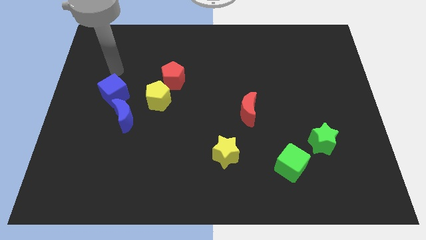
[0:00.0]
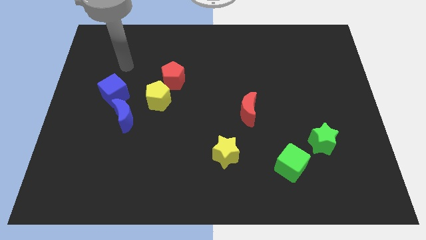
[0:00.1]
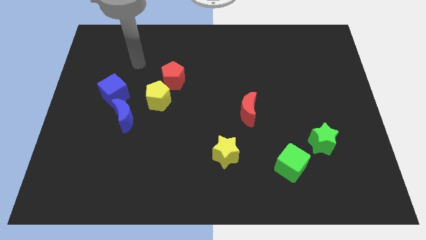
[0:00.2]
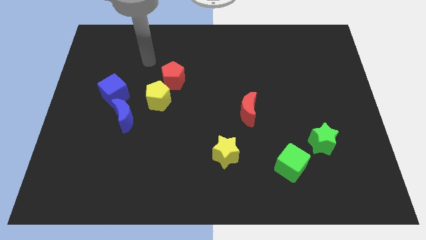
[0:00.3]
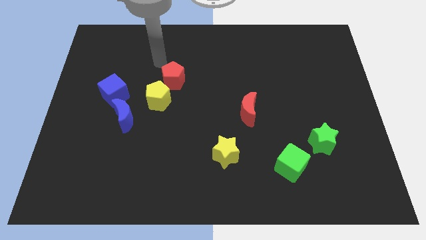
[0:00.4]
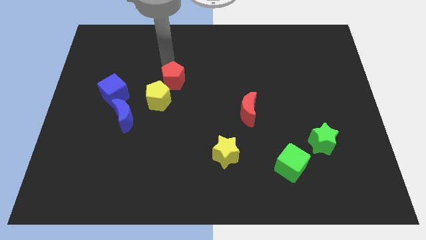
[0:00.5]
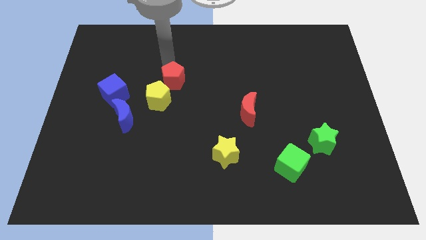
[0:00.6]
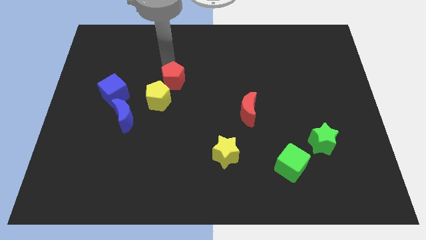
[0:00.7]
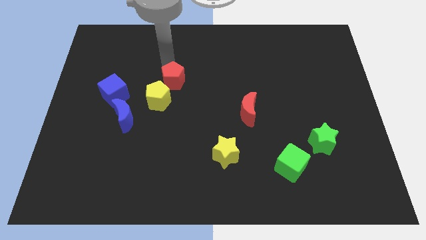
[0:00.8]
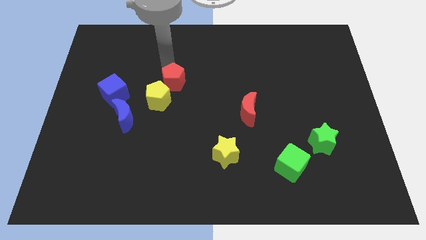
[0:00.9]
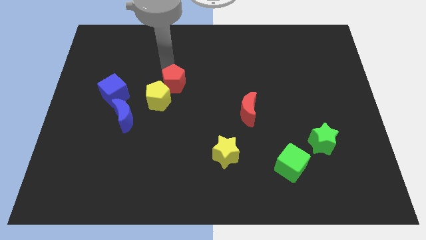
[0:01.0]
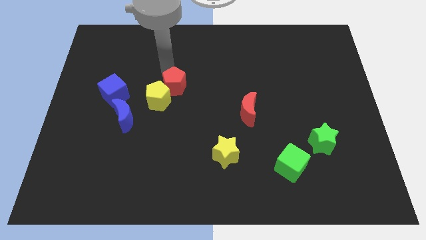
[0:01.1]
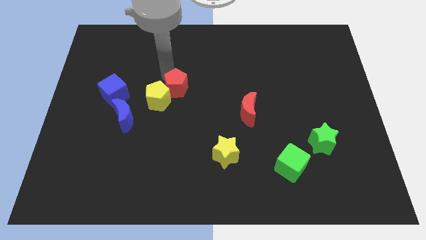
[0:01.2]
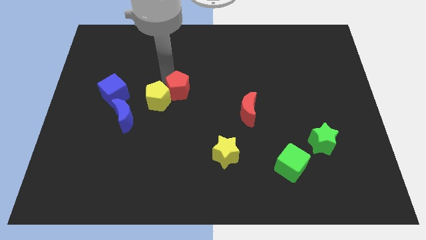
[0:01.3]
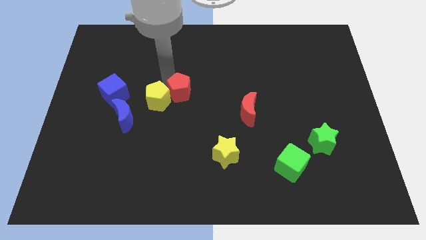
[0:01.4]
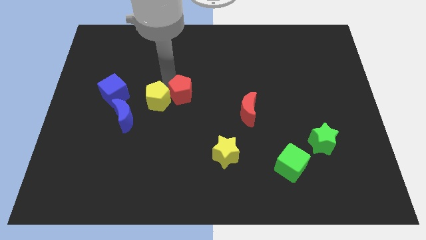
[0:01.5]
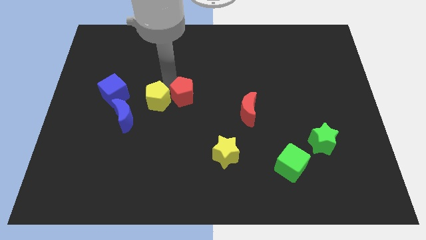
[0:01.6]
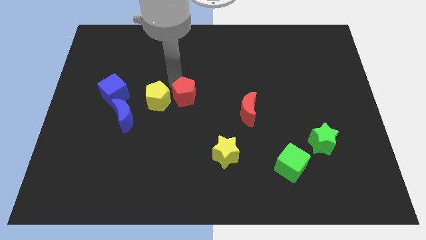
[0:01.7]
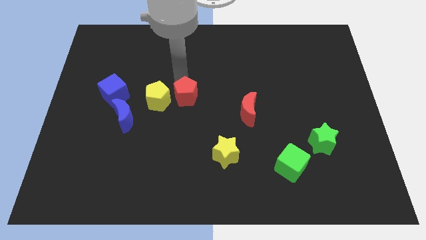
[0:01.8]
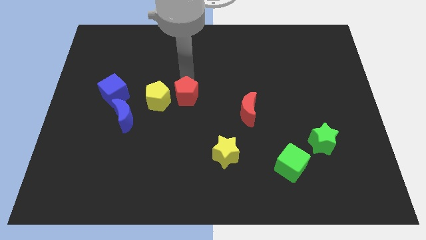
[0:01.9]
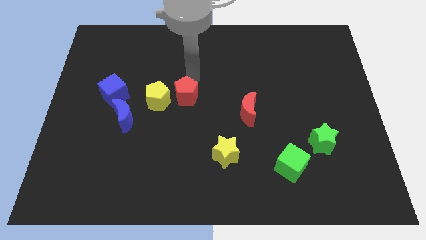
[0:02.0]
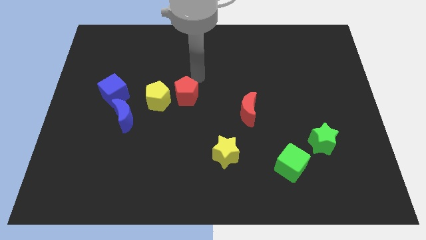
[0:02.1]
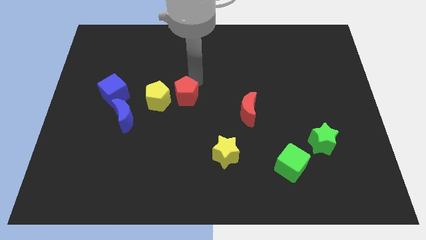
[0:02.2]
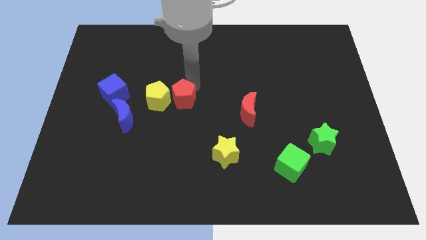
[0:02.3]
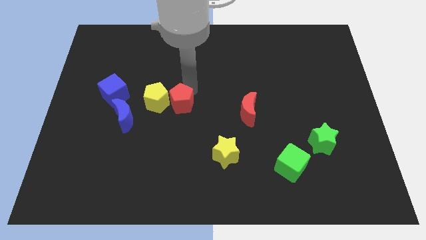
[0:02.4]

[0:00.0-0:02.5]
push the red pentagon a little down

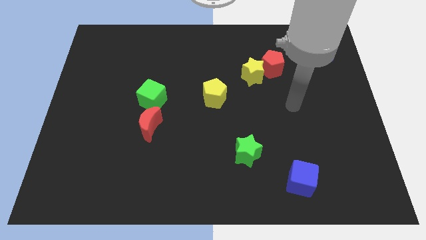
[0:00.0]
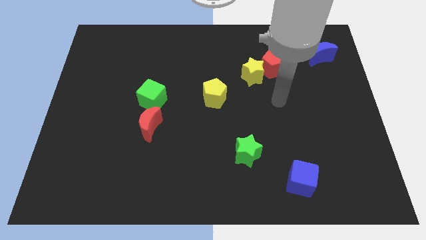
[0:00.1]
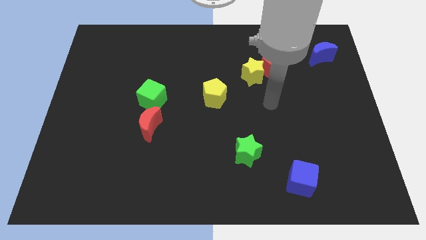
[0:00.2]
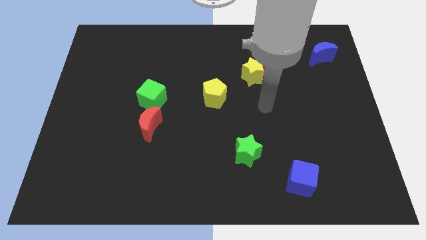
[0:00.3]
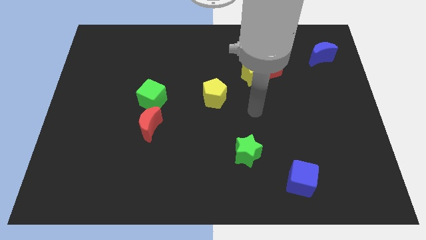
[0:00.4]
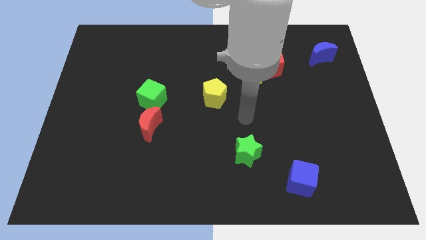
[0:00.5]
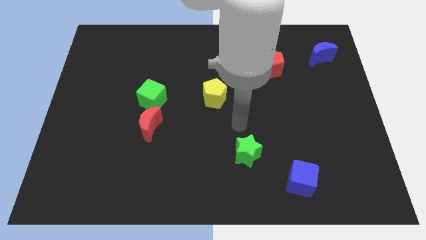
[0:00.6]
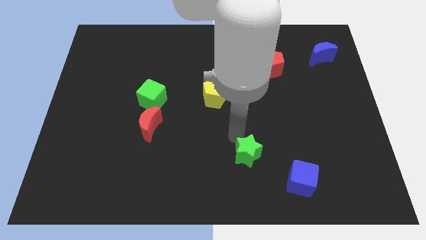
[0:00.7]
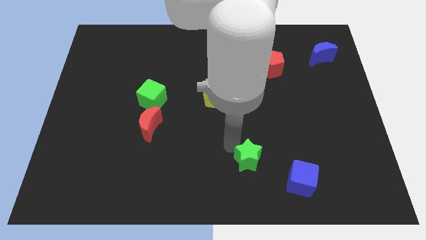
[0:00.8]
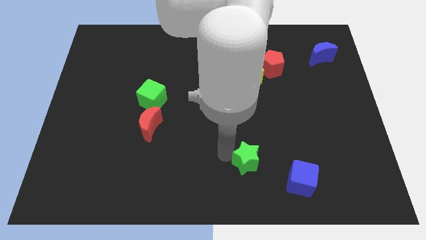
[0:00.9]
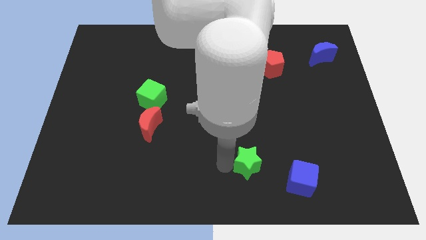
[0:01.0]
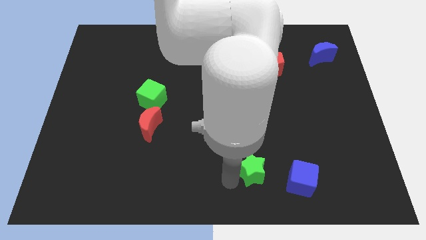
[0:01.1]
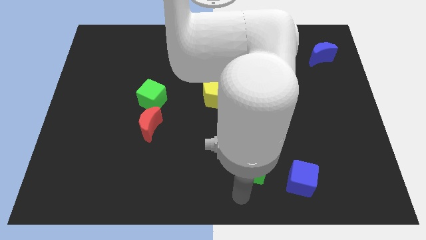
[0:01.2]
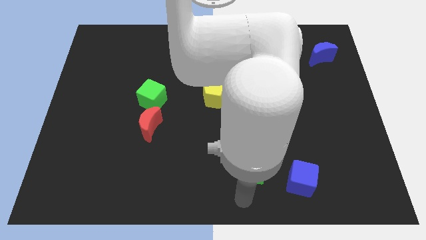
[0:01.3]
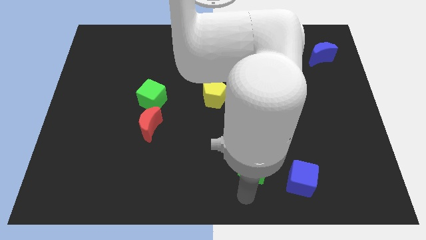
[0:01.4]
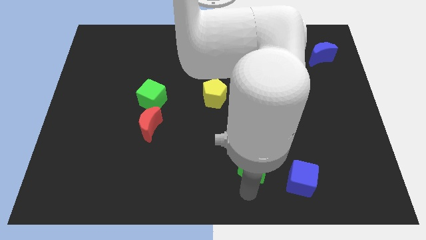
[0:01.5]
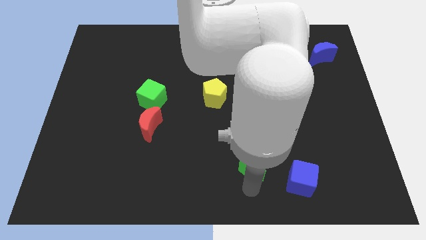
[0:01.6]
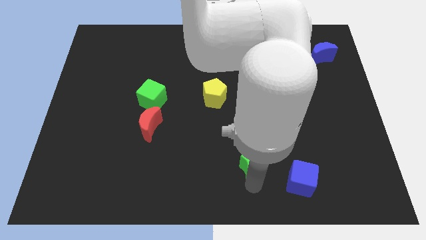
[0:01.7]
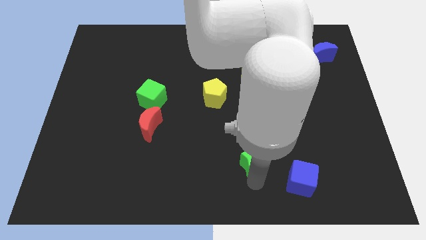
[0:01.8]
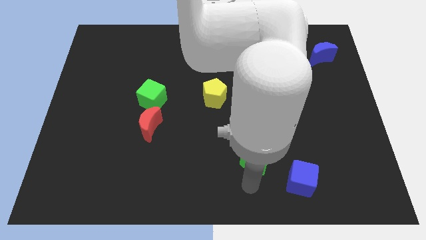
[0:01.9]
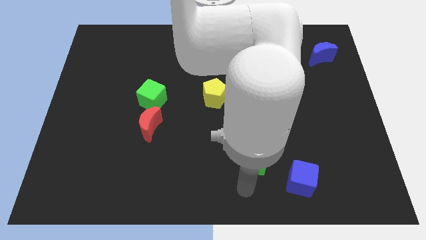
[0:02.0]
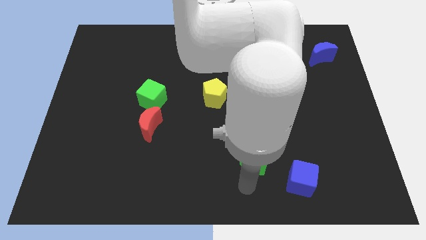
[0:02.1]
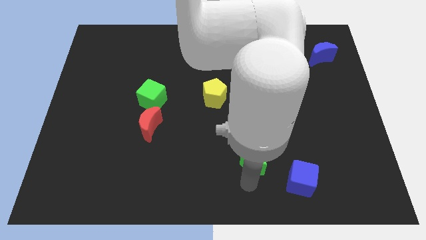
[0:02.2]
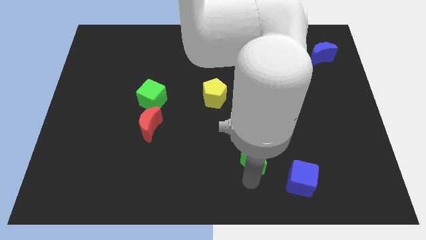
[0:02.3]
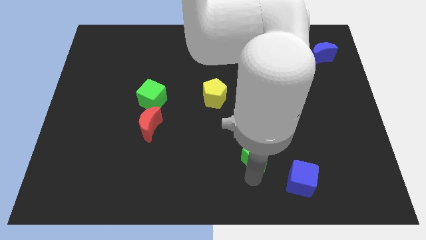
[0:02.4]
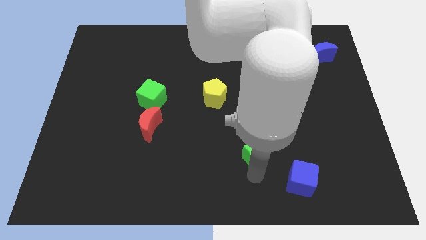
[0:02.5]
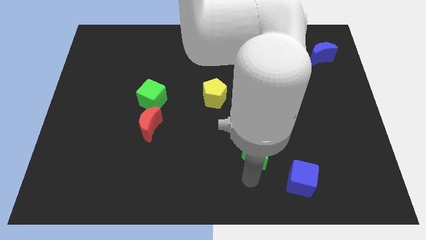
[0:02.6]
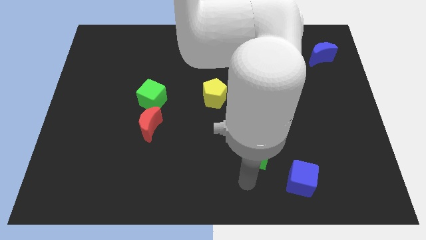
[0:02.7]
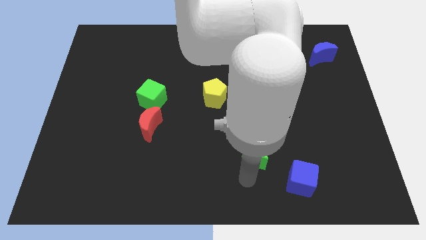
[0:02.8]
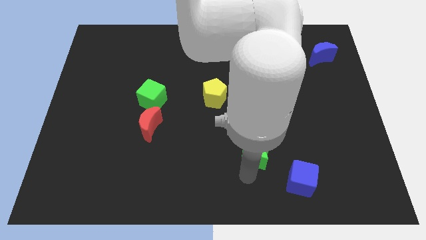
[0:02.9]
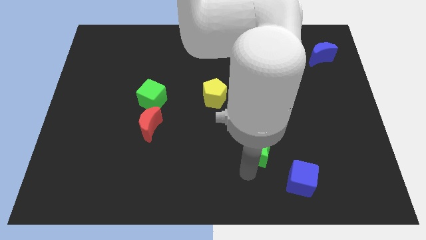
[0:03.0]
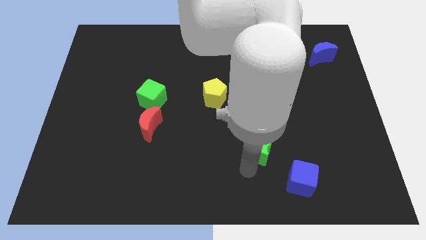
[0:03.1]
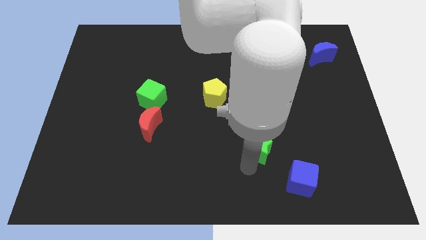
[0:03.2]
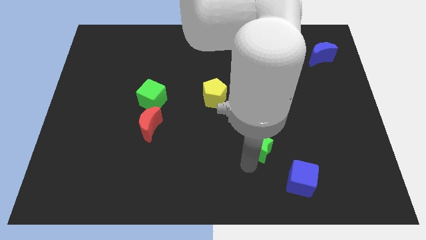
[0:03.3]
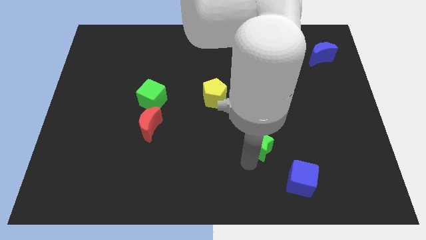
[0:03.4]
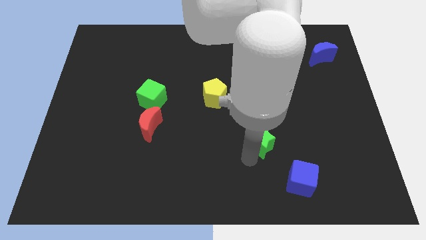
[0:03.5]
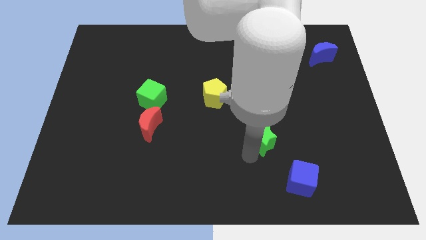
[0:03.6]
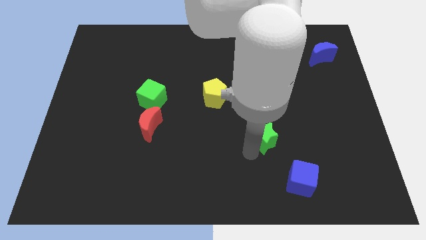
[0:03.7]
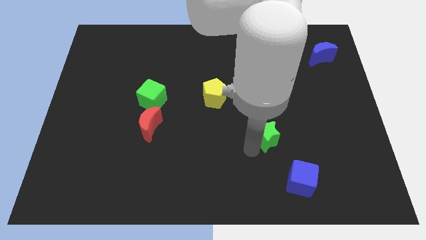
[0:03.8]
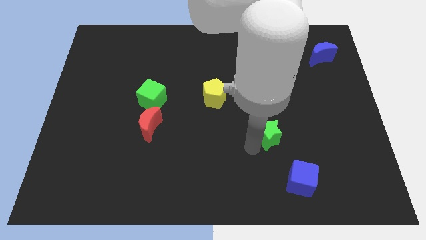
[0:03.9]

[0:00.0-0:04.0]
slide the green star up and then right slightly

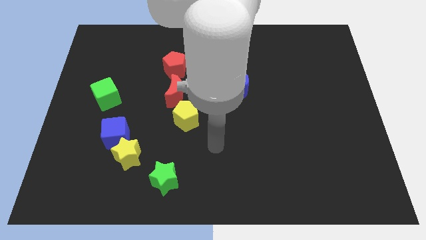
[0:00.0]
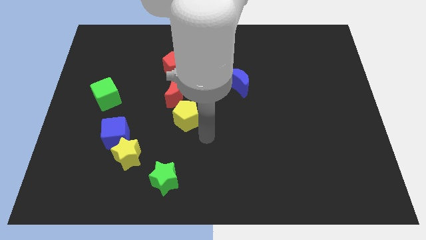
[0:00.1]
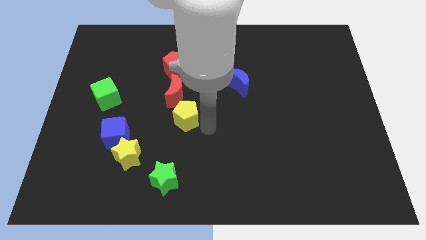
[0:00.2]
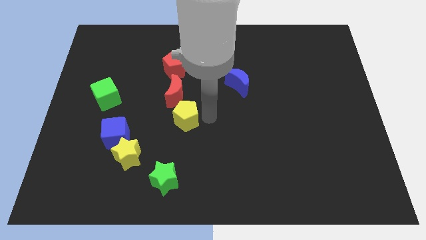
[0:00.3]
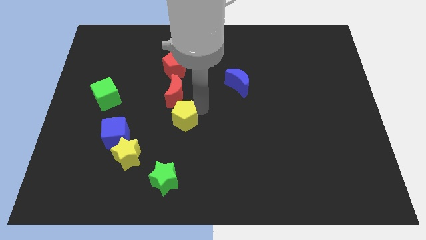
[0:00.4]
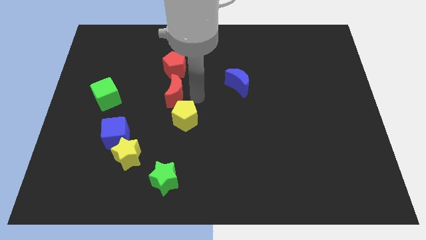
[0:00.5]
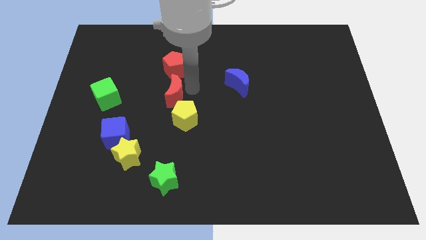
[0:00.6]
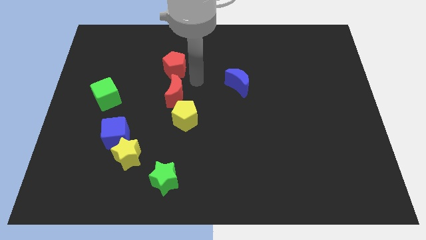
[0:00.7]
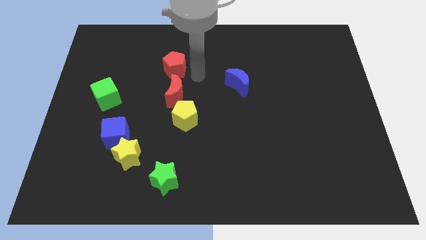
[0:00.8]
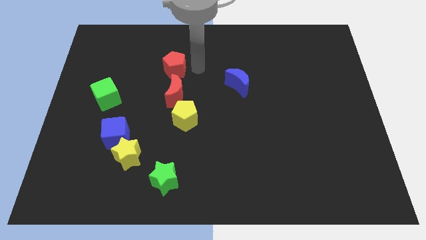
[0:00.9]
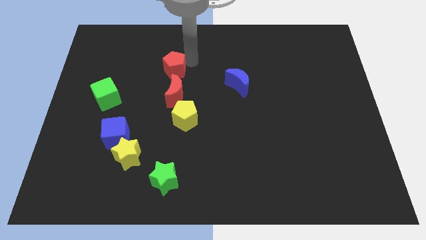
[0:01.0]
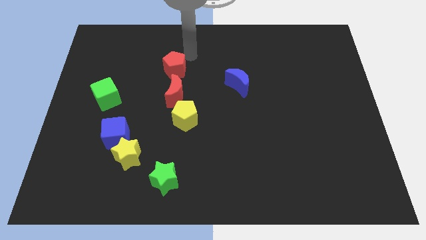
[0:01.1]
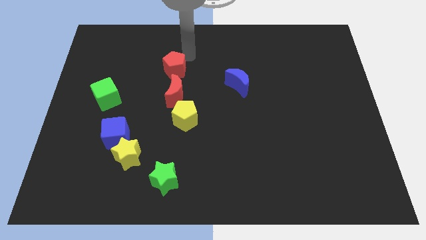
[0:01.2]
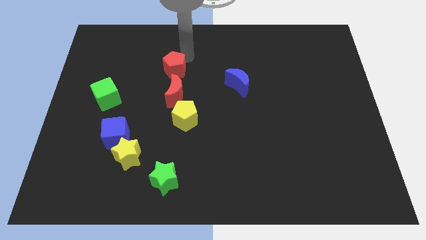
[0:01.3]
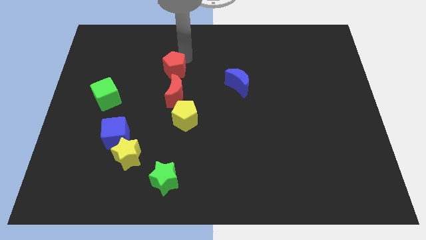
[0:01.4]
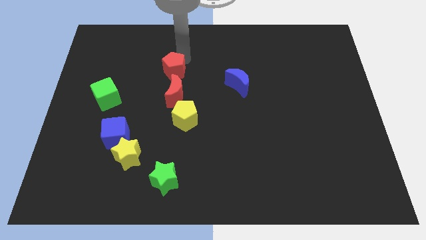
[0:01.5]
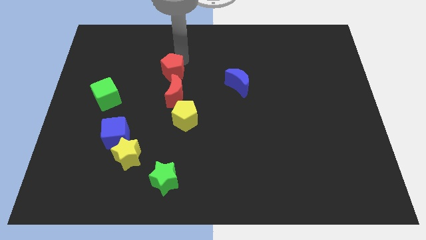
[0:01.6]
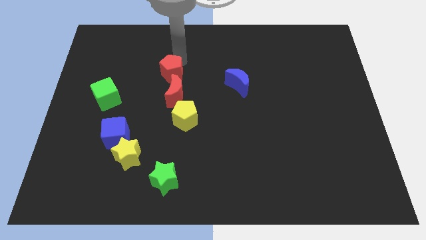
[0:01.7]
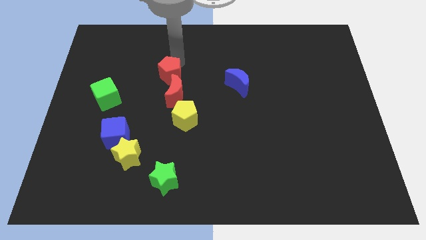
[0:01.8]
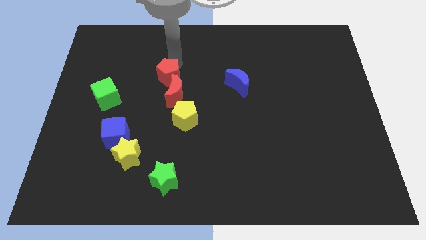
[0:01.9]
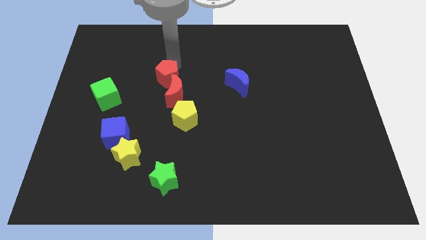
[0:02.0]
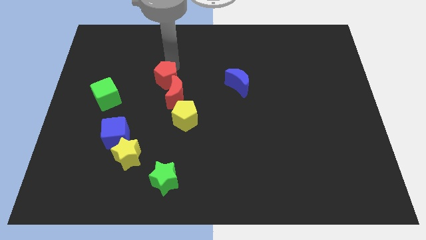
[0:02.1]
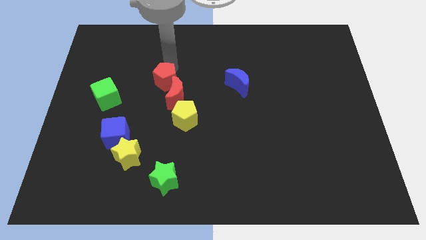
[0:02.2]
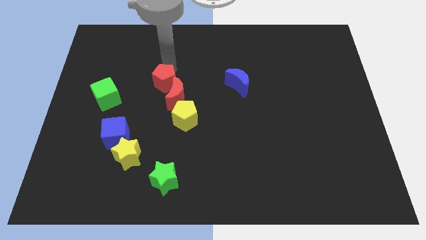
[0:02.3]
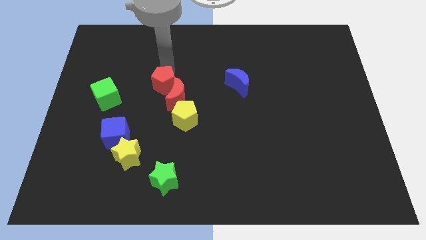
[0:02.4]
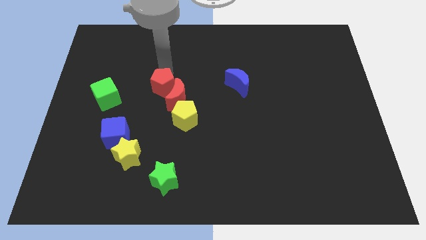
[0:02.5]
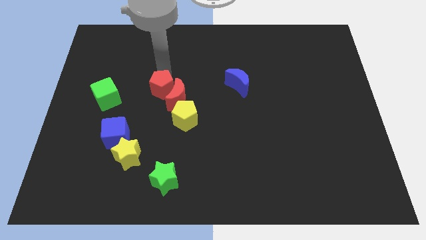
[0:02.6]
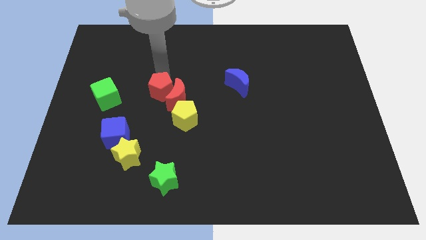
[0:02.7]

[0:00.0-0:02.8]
push the red pentagon down a little
